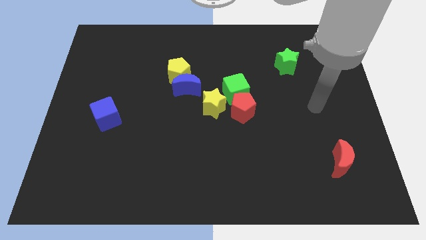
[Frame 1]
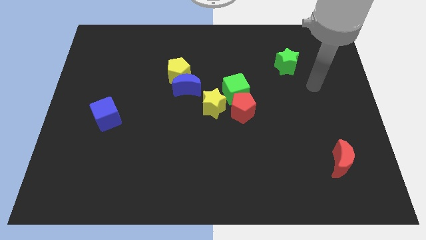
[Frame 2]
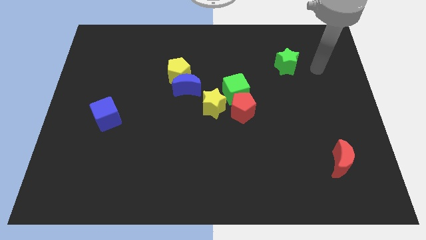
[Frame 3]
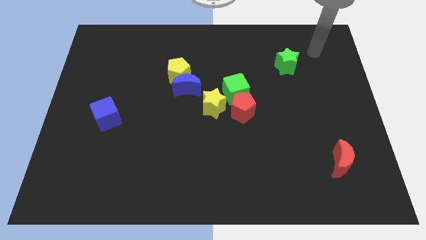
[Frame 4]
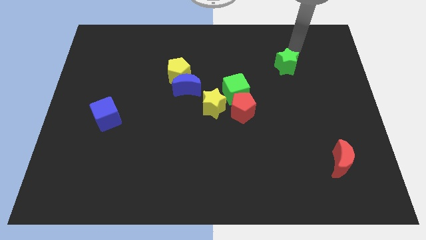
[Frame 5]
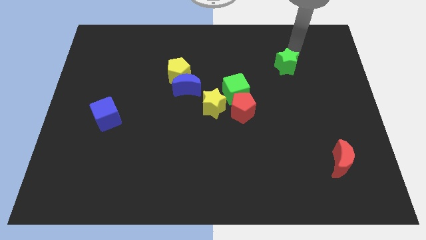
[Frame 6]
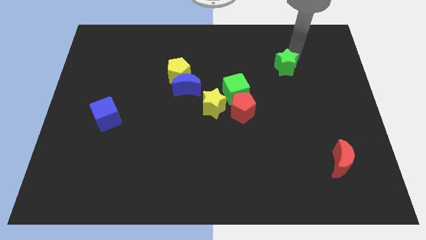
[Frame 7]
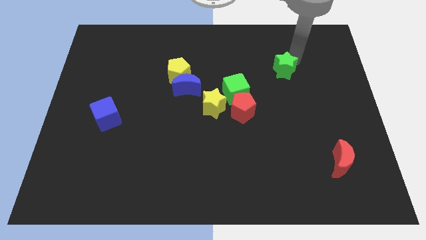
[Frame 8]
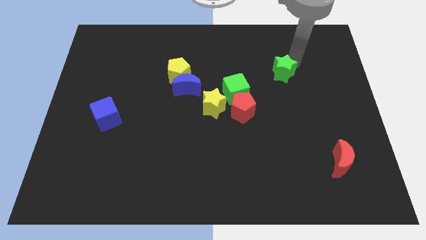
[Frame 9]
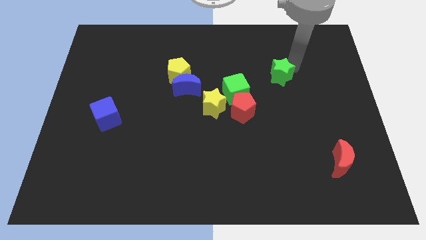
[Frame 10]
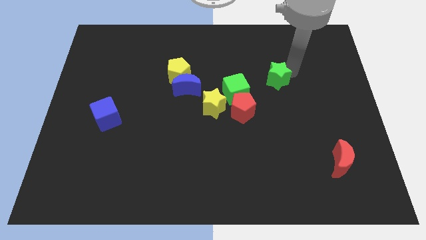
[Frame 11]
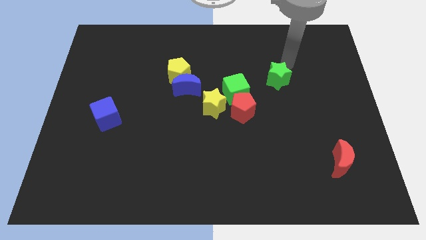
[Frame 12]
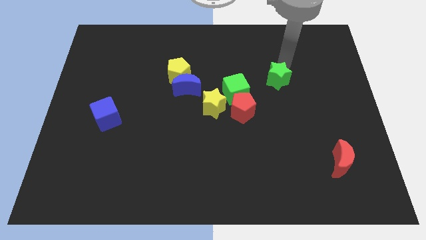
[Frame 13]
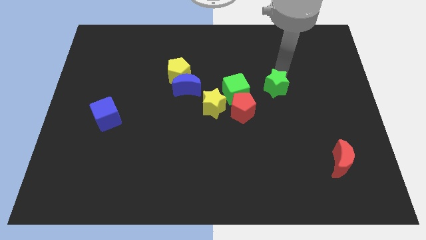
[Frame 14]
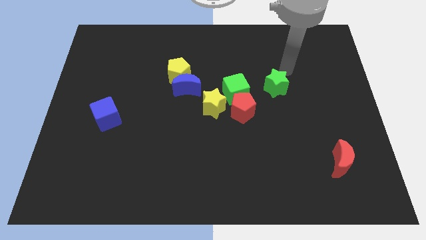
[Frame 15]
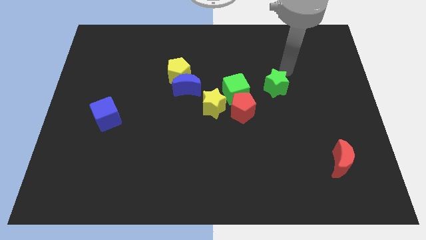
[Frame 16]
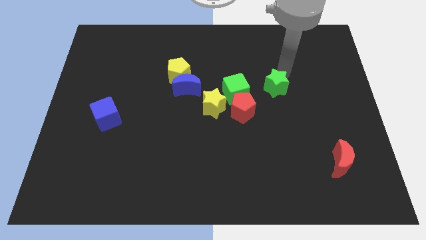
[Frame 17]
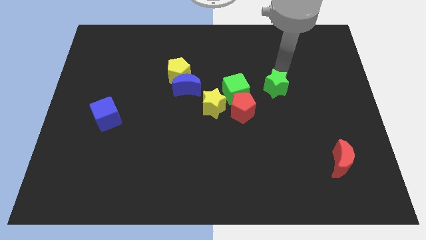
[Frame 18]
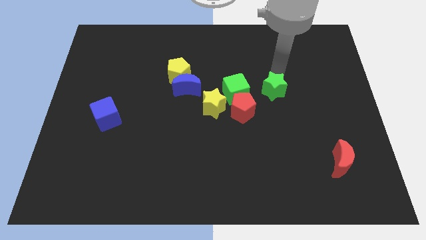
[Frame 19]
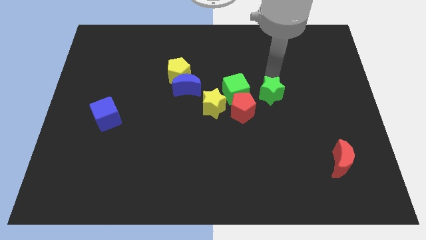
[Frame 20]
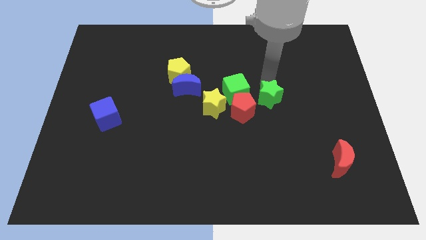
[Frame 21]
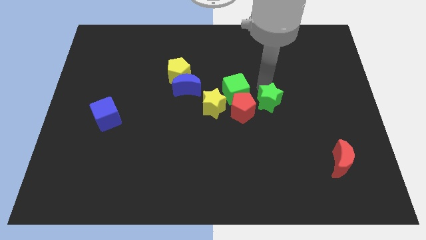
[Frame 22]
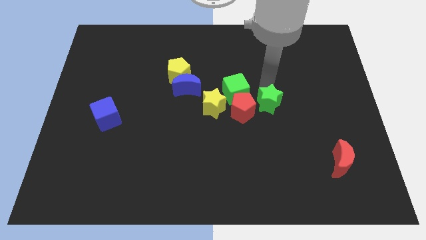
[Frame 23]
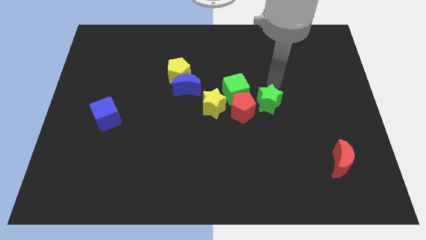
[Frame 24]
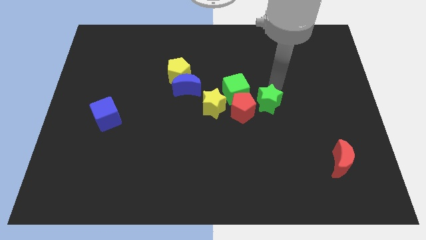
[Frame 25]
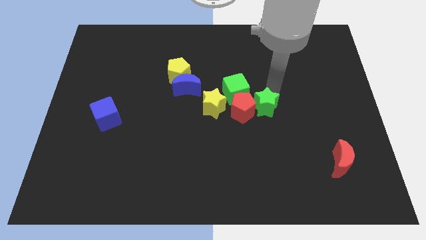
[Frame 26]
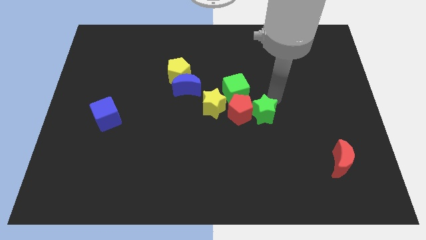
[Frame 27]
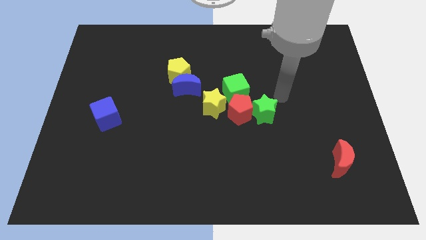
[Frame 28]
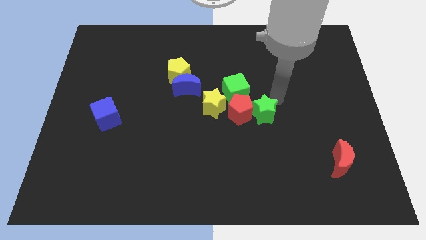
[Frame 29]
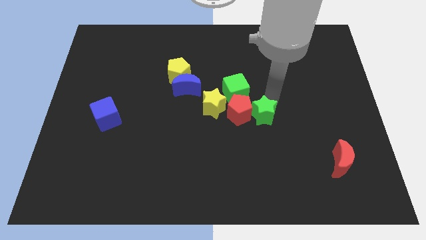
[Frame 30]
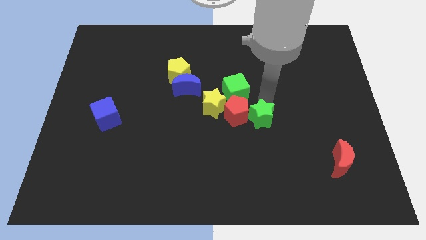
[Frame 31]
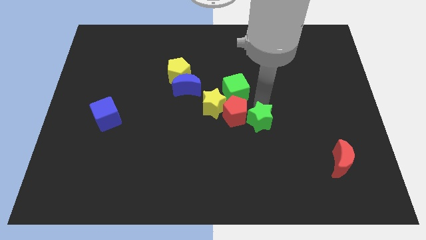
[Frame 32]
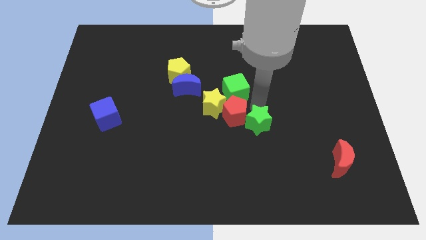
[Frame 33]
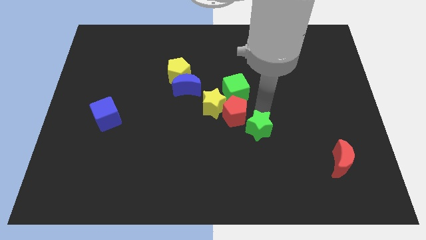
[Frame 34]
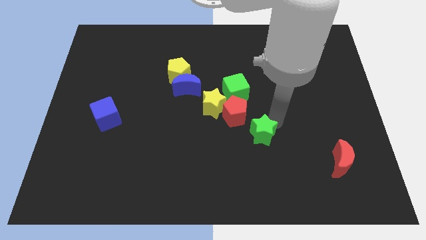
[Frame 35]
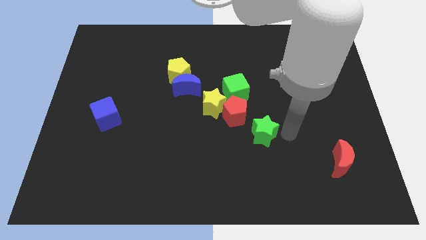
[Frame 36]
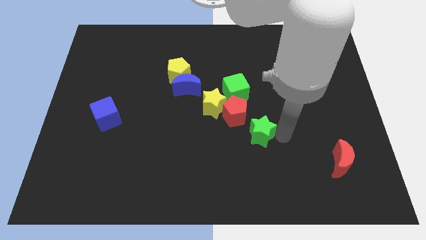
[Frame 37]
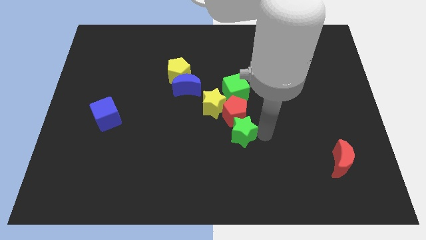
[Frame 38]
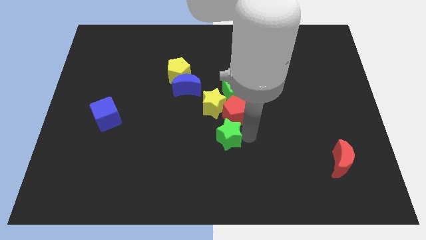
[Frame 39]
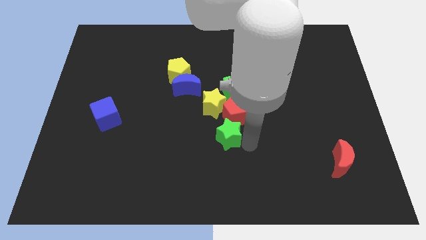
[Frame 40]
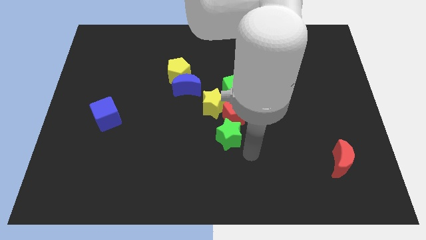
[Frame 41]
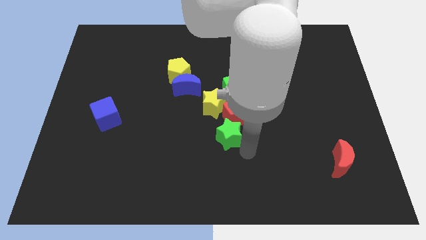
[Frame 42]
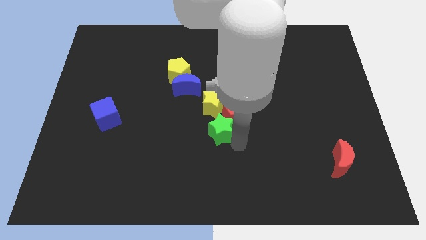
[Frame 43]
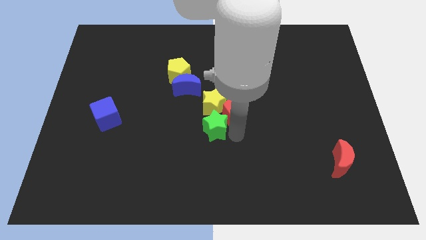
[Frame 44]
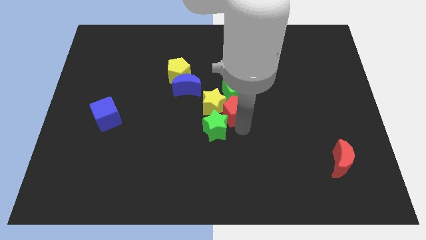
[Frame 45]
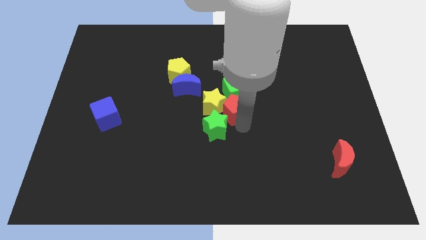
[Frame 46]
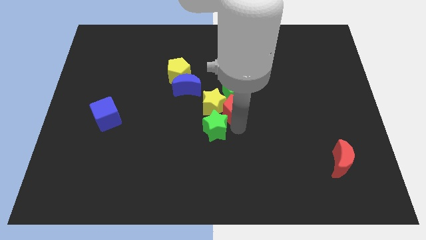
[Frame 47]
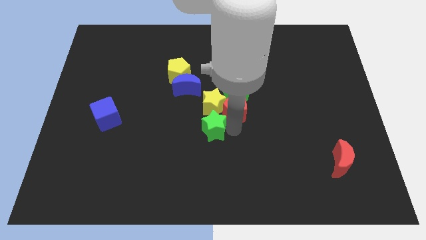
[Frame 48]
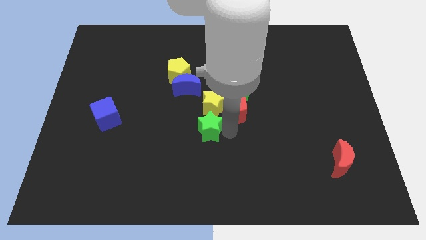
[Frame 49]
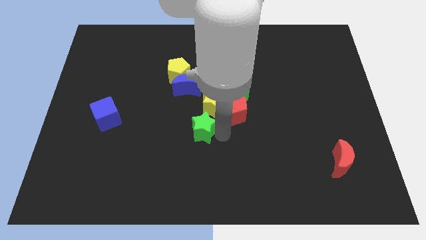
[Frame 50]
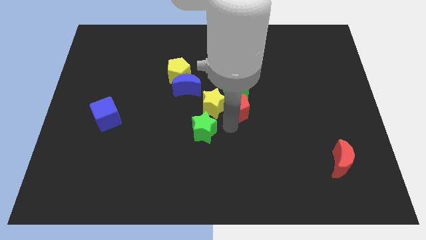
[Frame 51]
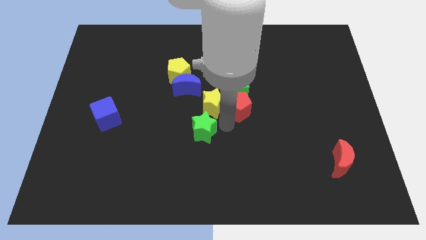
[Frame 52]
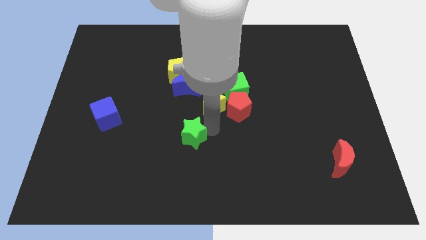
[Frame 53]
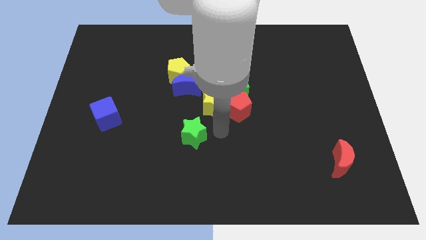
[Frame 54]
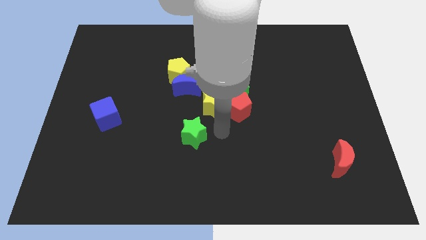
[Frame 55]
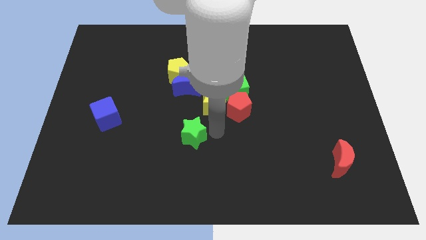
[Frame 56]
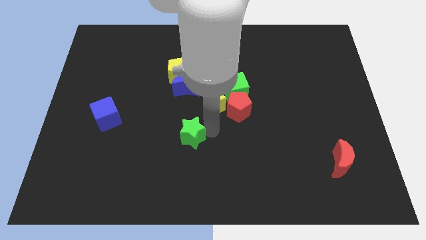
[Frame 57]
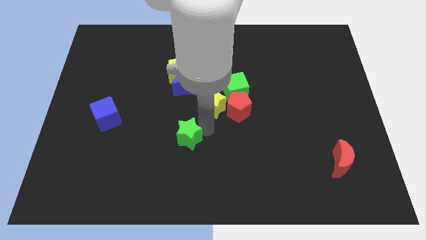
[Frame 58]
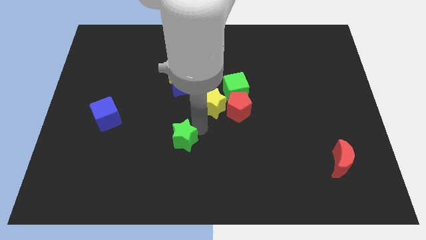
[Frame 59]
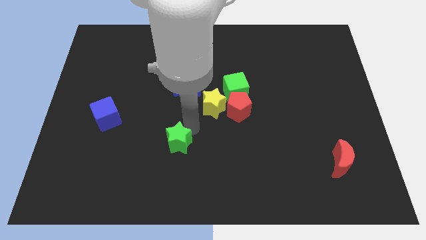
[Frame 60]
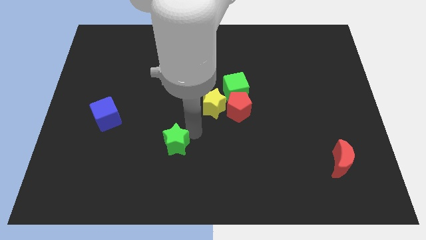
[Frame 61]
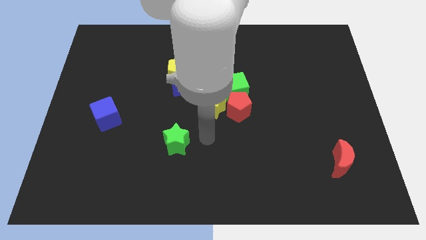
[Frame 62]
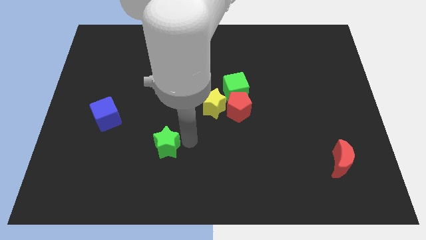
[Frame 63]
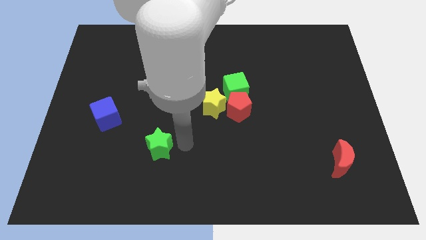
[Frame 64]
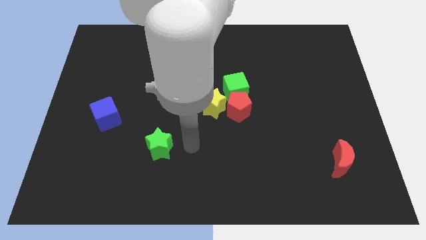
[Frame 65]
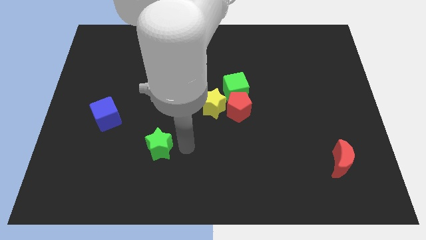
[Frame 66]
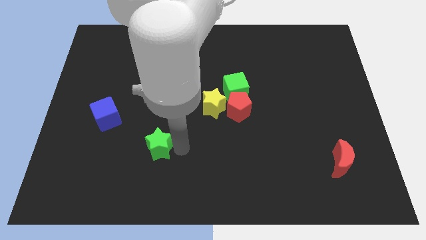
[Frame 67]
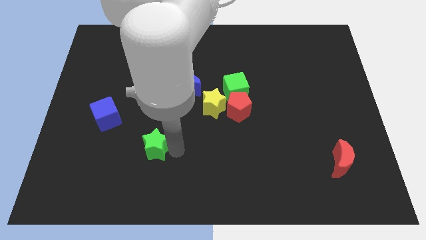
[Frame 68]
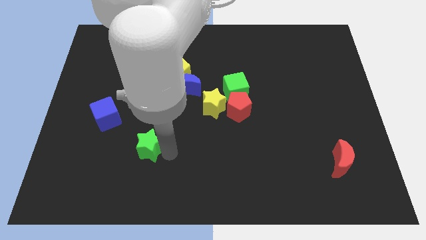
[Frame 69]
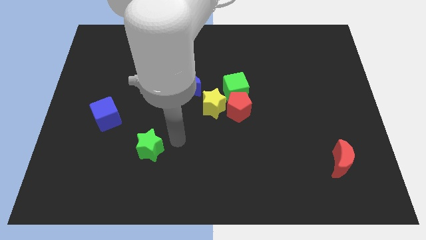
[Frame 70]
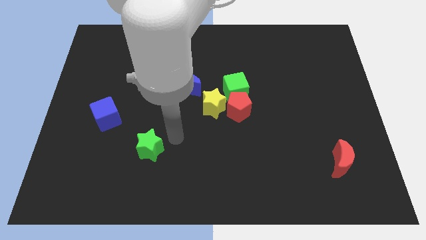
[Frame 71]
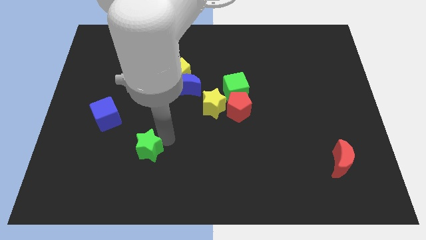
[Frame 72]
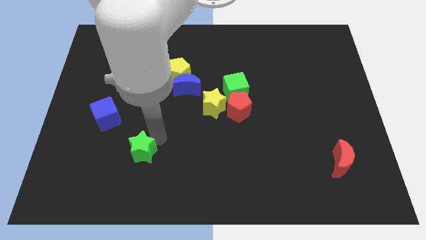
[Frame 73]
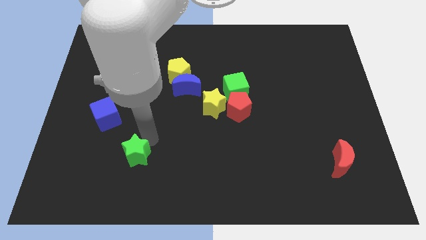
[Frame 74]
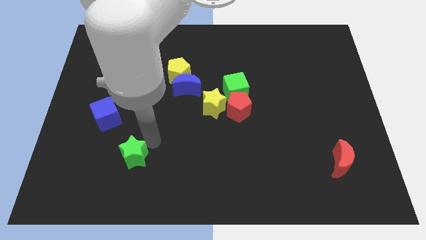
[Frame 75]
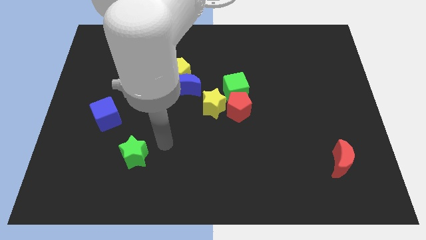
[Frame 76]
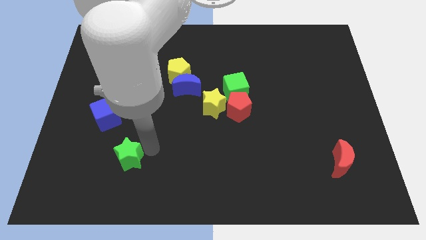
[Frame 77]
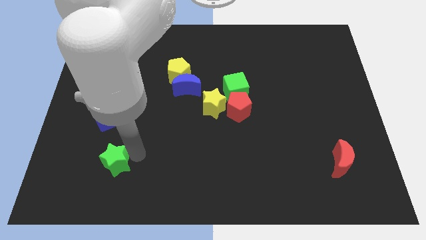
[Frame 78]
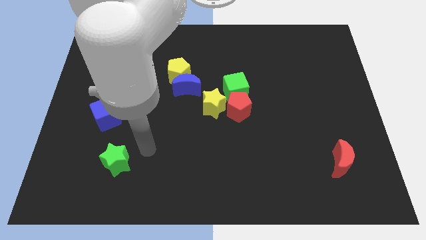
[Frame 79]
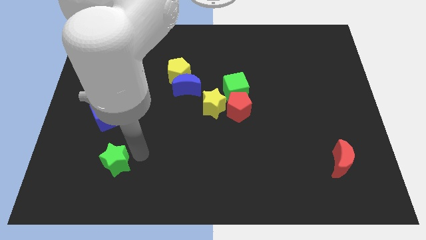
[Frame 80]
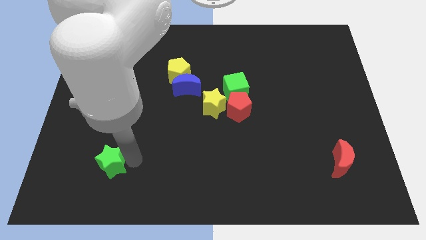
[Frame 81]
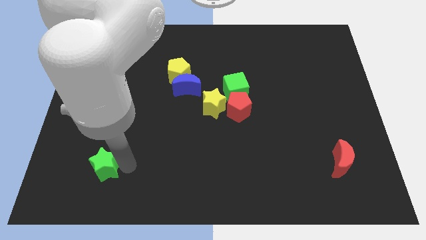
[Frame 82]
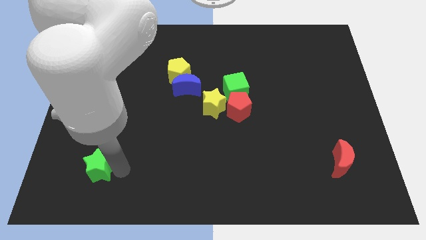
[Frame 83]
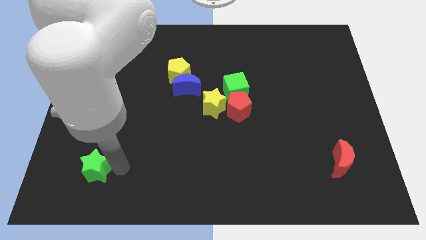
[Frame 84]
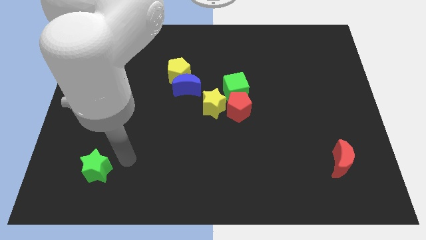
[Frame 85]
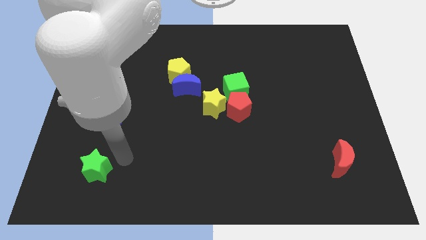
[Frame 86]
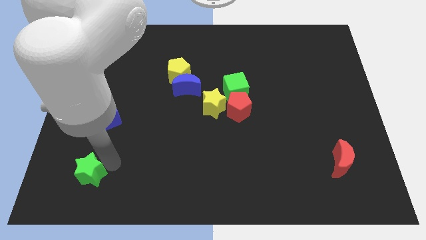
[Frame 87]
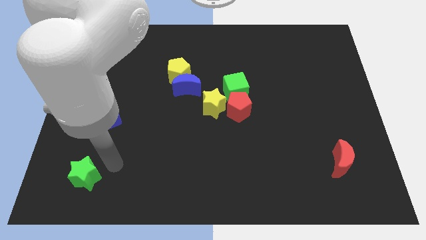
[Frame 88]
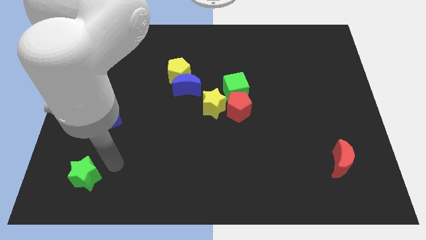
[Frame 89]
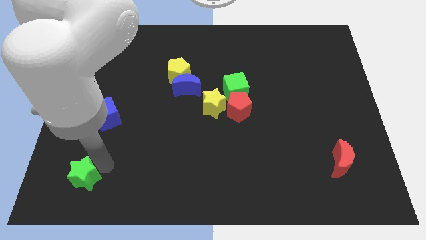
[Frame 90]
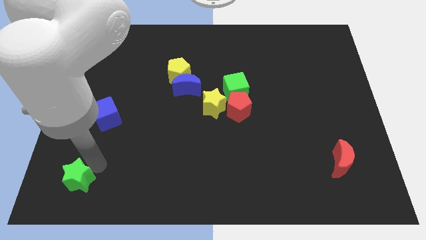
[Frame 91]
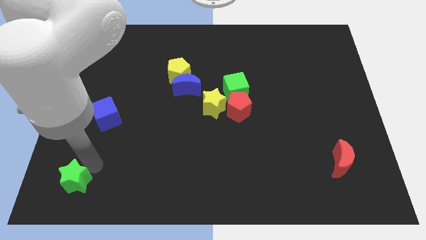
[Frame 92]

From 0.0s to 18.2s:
put the green star to the bottom left of the board
